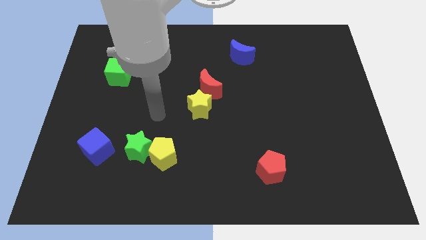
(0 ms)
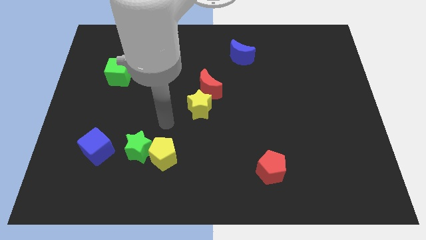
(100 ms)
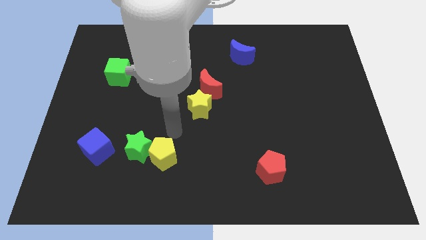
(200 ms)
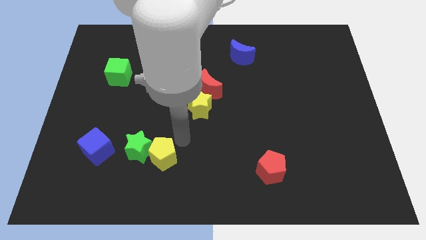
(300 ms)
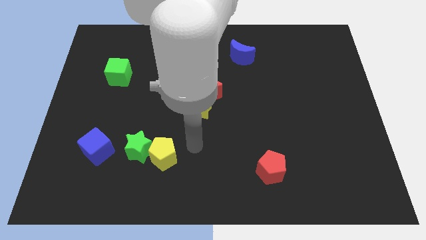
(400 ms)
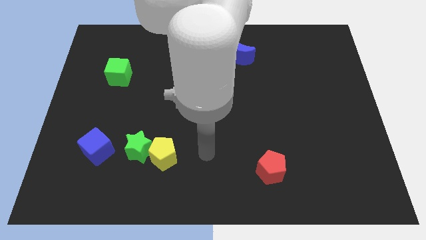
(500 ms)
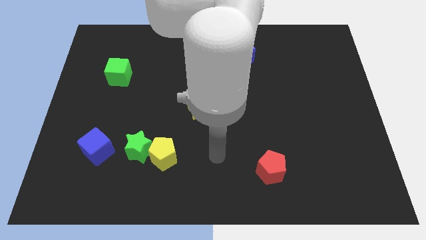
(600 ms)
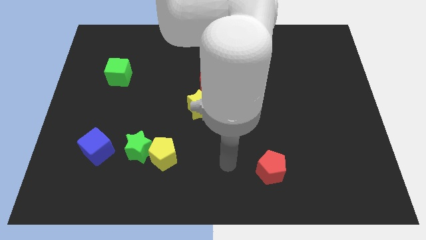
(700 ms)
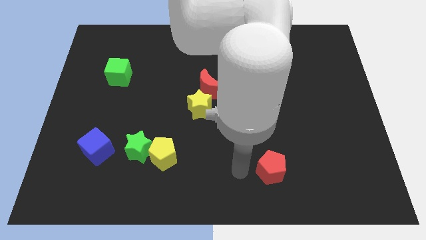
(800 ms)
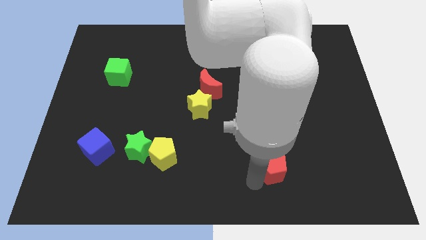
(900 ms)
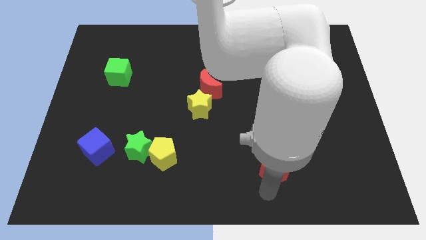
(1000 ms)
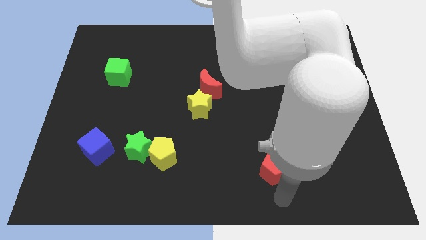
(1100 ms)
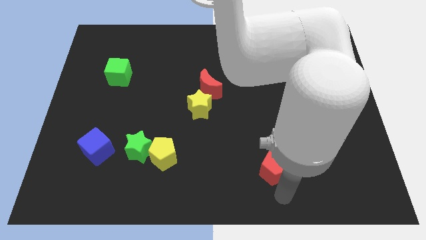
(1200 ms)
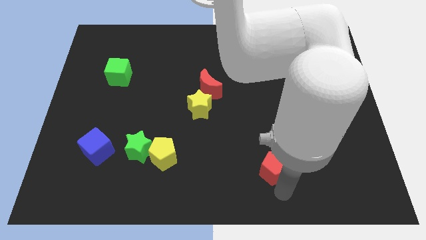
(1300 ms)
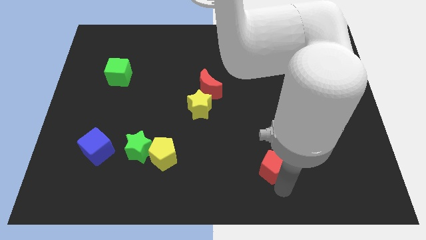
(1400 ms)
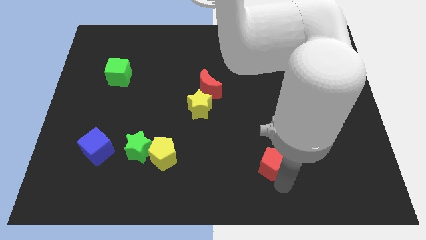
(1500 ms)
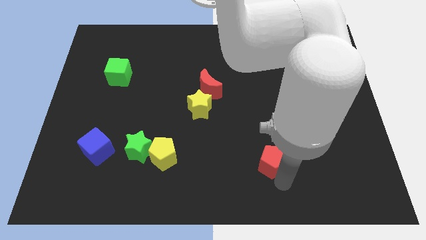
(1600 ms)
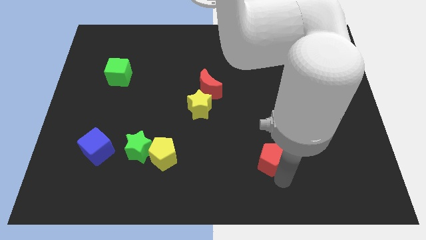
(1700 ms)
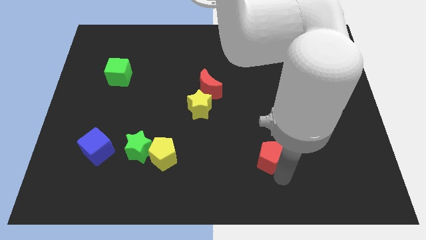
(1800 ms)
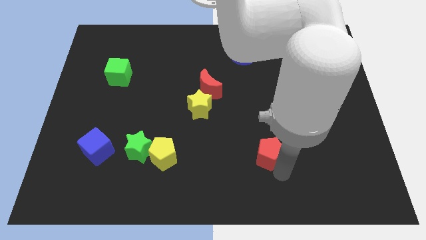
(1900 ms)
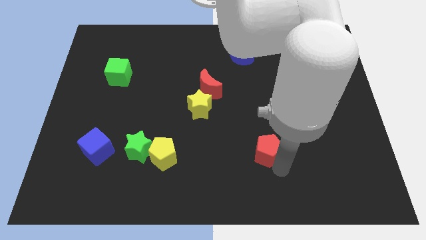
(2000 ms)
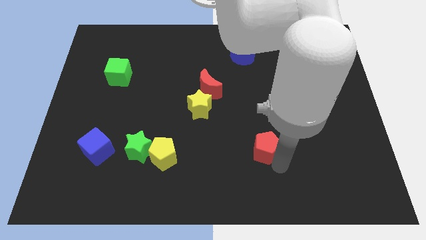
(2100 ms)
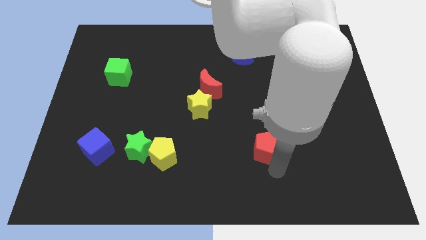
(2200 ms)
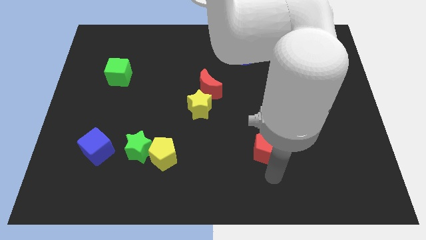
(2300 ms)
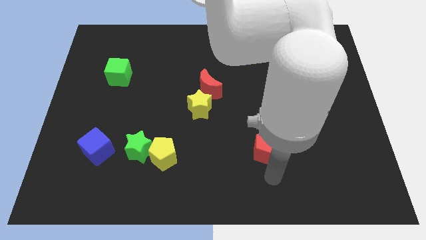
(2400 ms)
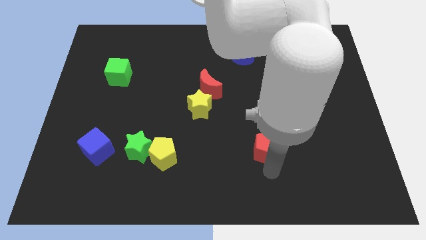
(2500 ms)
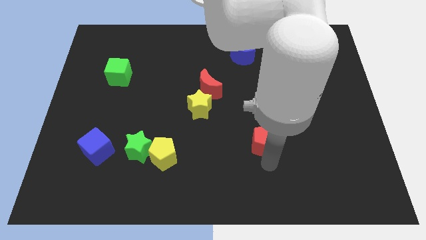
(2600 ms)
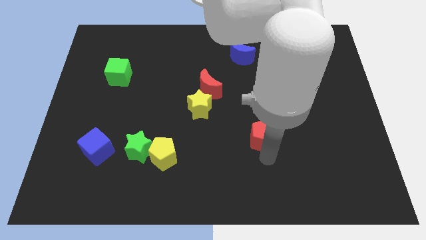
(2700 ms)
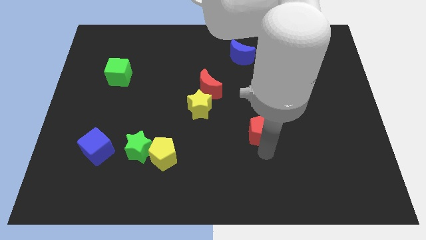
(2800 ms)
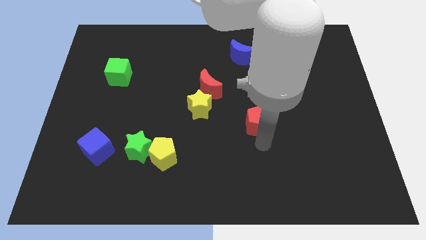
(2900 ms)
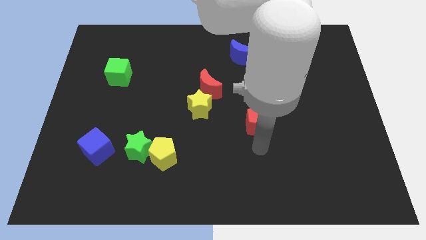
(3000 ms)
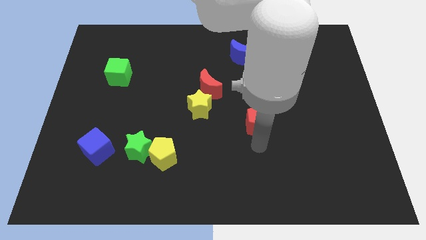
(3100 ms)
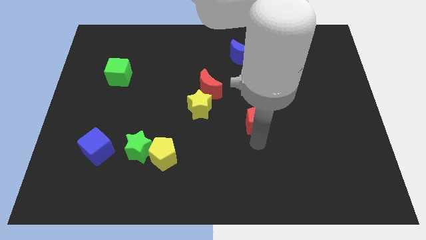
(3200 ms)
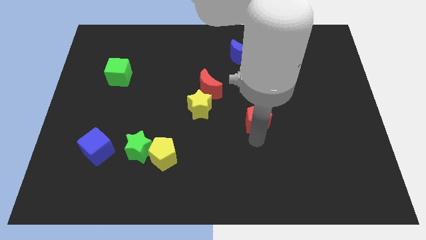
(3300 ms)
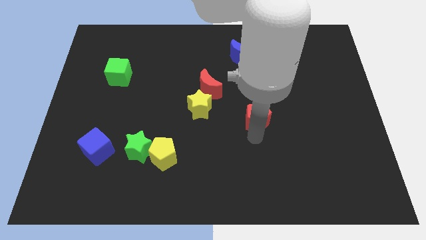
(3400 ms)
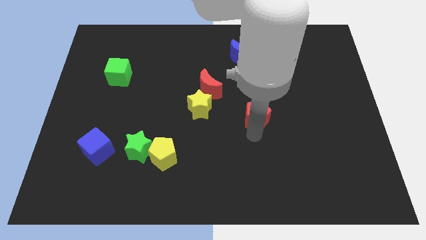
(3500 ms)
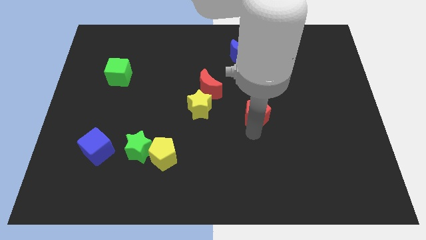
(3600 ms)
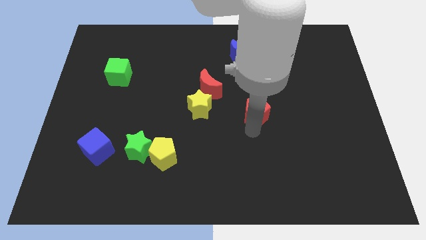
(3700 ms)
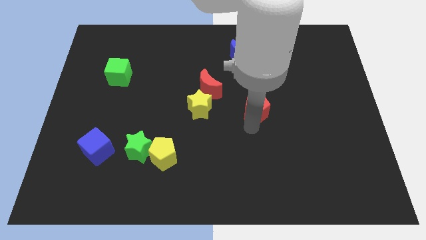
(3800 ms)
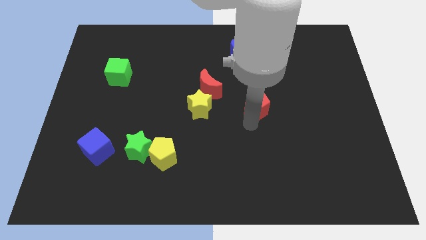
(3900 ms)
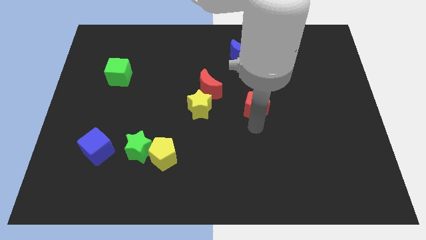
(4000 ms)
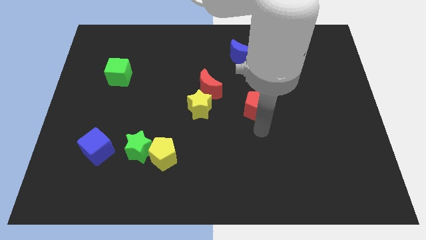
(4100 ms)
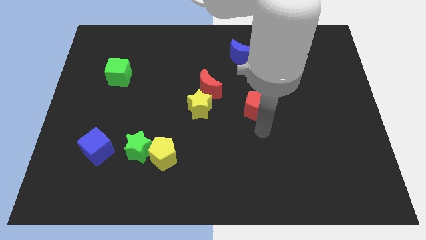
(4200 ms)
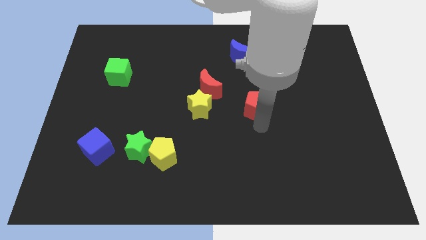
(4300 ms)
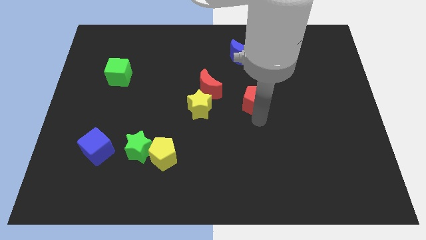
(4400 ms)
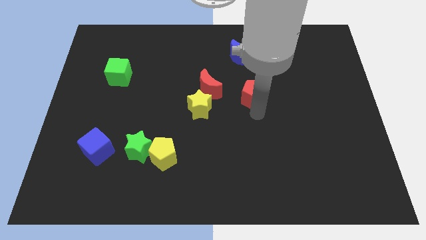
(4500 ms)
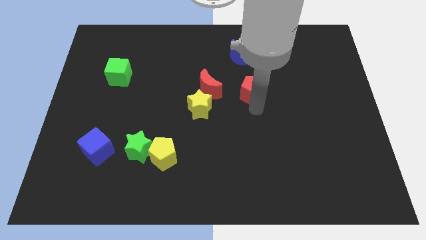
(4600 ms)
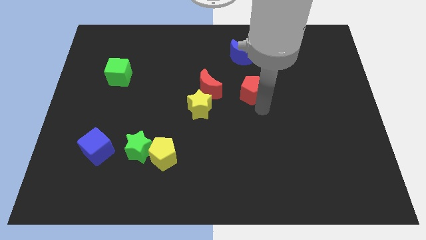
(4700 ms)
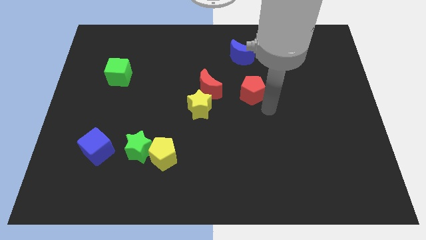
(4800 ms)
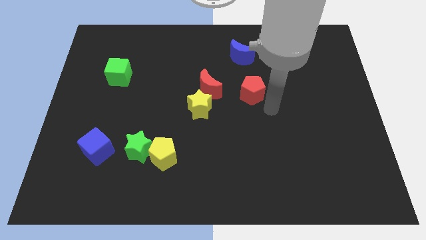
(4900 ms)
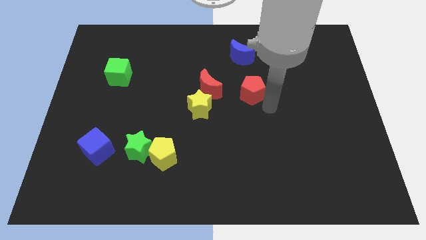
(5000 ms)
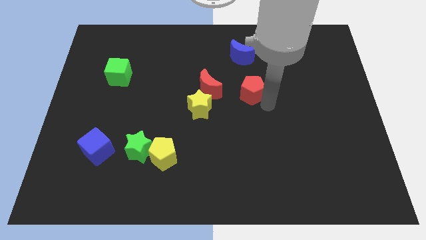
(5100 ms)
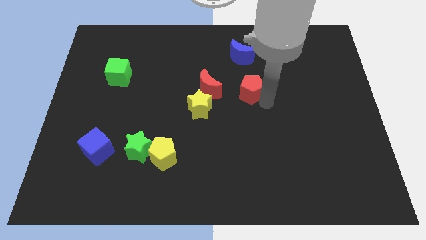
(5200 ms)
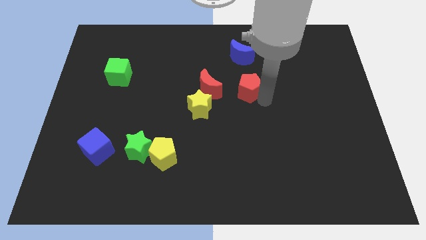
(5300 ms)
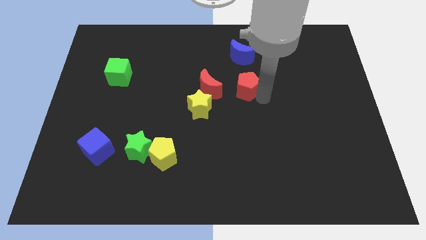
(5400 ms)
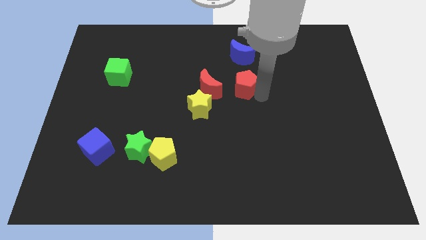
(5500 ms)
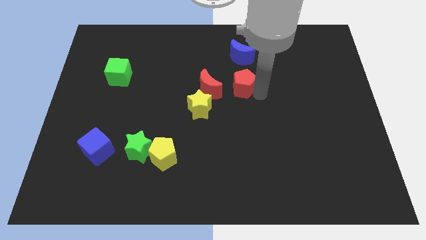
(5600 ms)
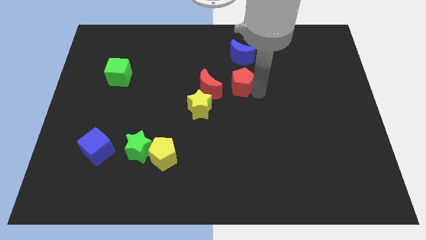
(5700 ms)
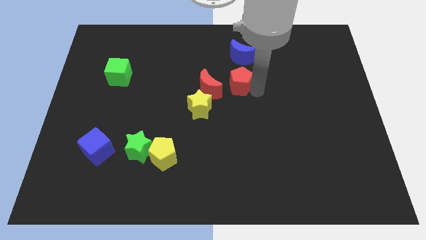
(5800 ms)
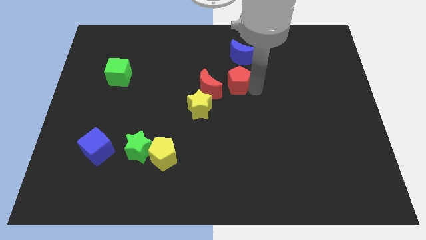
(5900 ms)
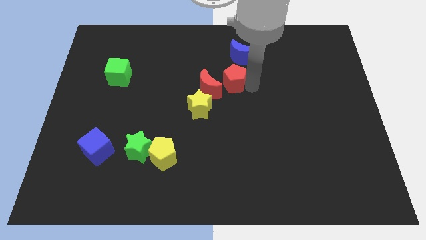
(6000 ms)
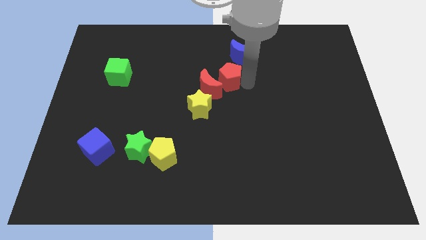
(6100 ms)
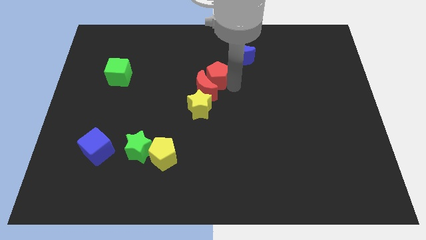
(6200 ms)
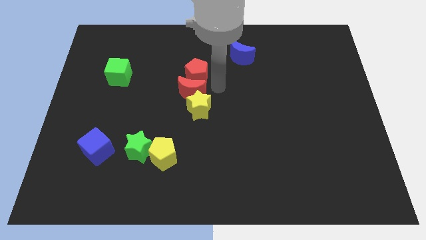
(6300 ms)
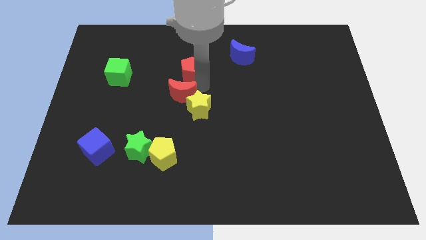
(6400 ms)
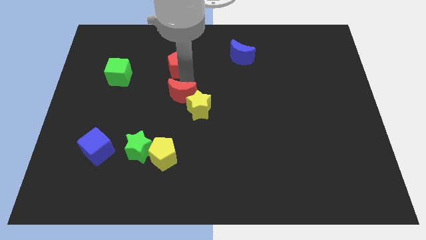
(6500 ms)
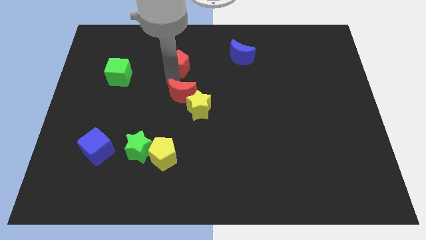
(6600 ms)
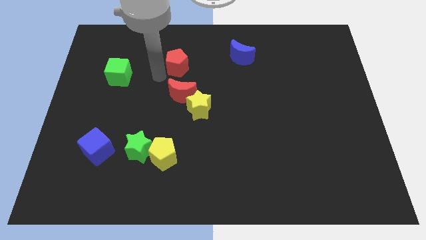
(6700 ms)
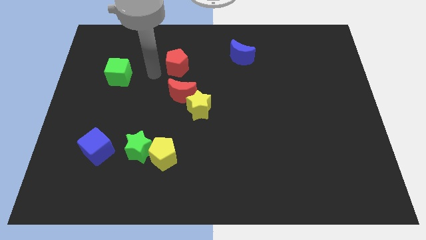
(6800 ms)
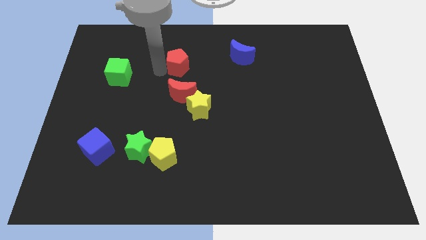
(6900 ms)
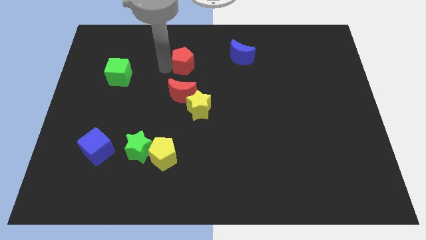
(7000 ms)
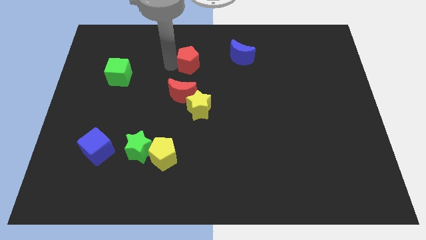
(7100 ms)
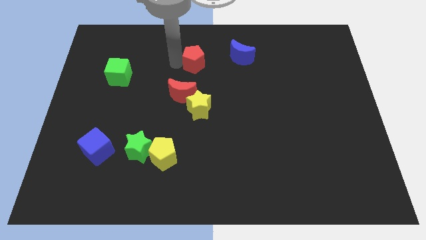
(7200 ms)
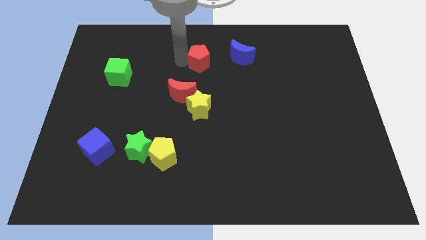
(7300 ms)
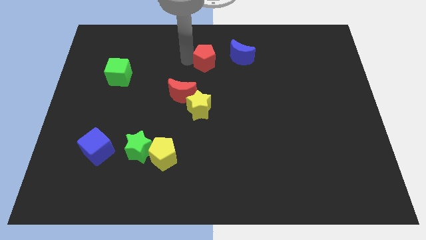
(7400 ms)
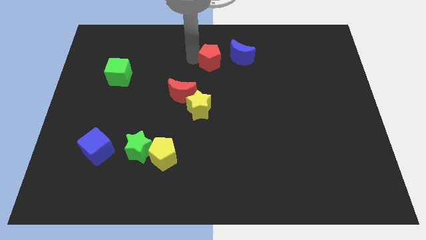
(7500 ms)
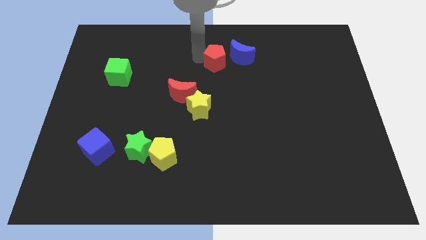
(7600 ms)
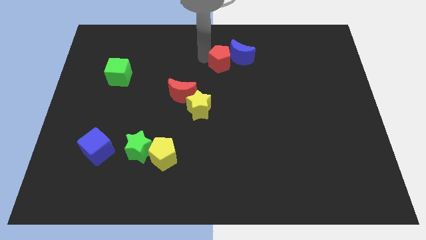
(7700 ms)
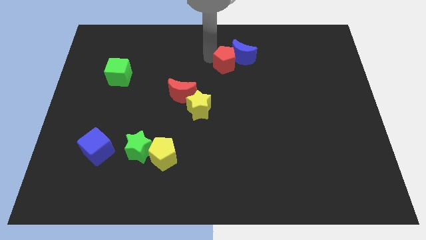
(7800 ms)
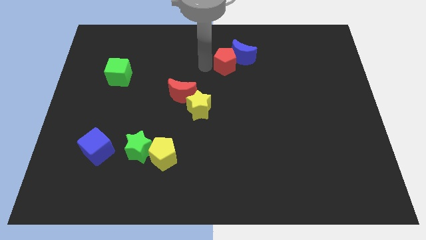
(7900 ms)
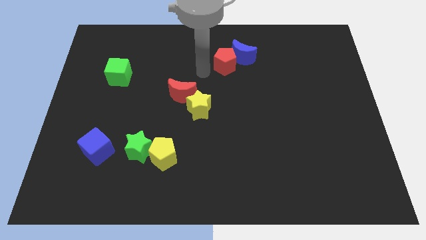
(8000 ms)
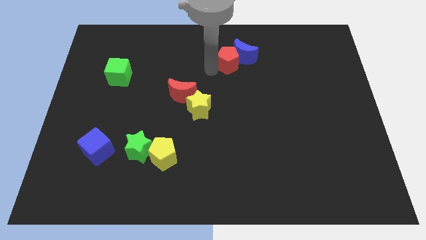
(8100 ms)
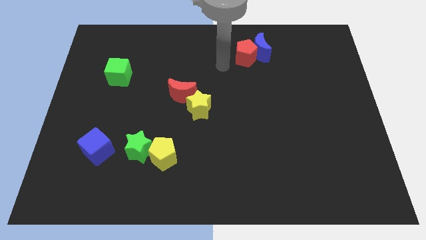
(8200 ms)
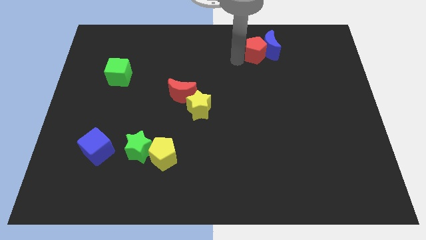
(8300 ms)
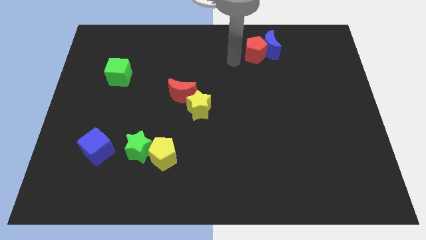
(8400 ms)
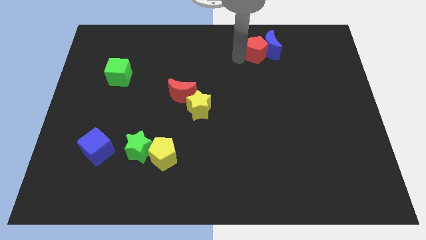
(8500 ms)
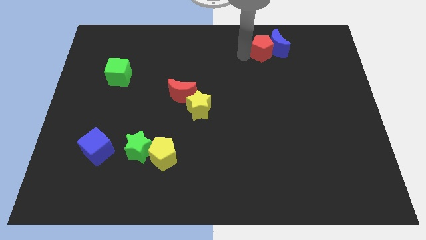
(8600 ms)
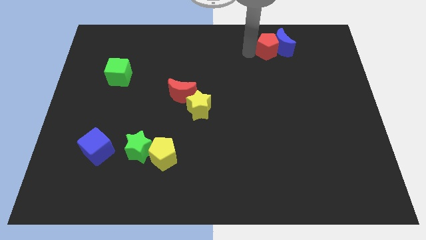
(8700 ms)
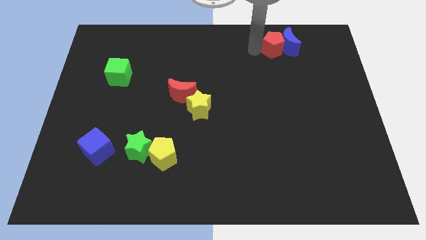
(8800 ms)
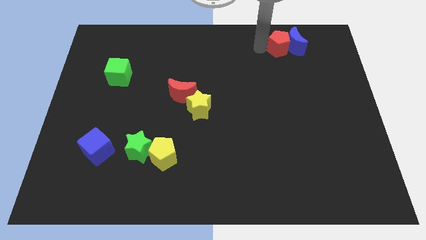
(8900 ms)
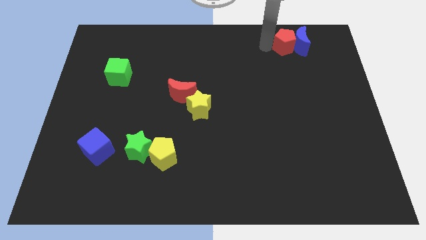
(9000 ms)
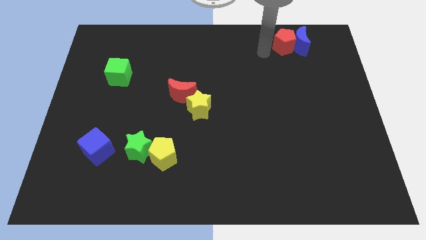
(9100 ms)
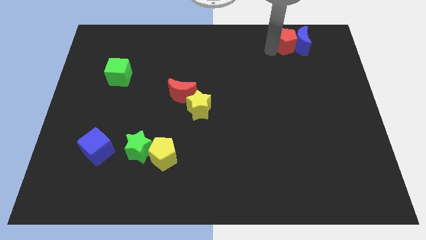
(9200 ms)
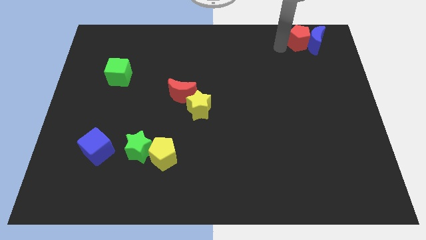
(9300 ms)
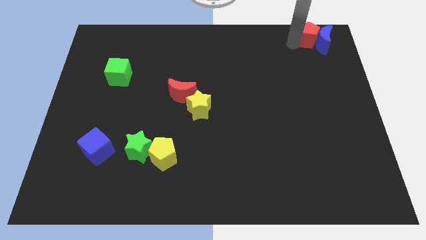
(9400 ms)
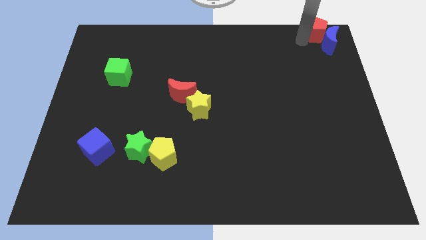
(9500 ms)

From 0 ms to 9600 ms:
move the red pentagon to the top right
